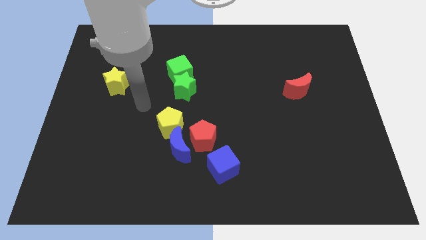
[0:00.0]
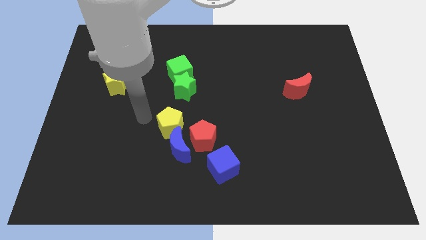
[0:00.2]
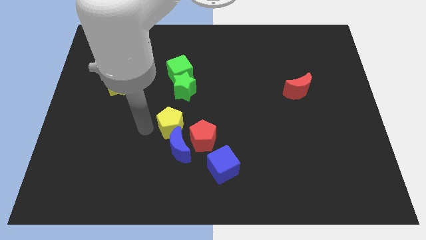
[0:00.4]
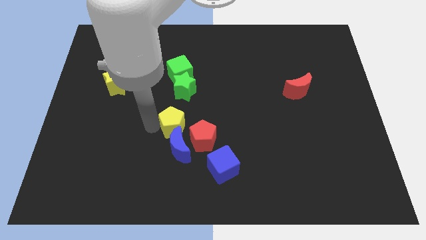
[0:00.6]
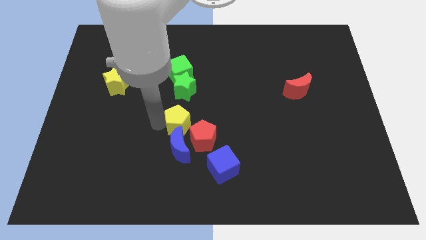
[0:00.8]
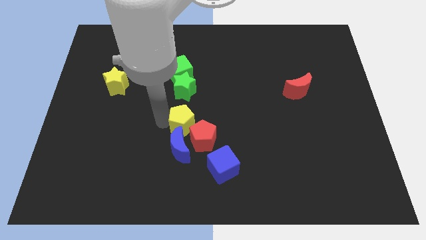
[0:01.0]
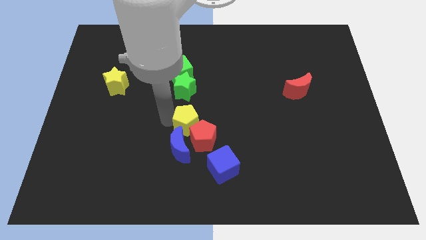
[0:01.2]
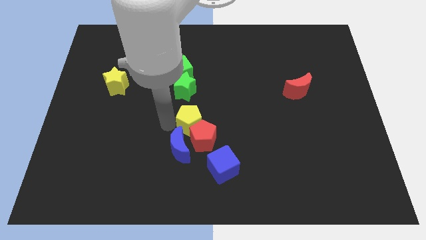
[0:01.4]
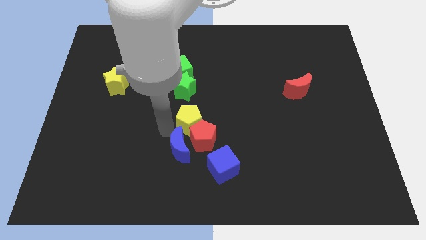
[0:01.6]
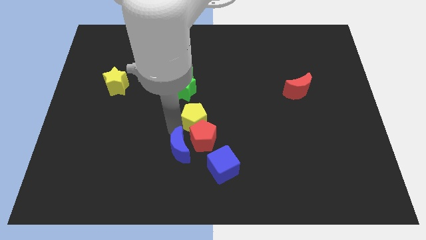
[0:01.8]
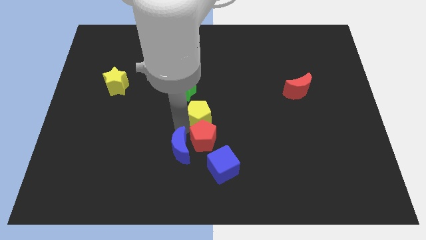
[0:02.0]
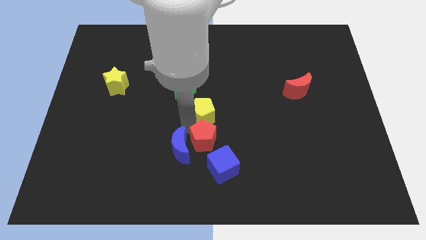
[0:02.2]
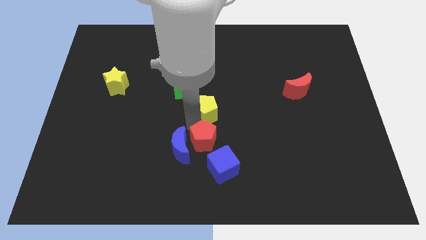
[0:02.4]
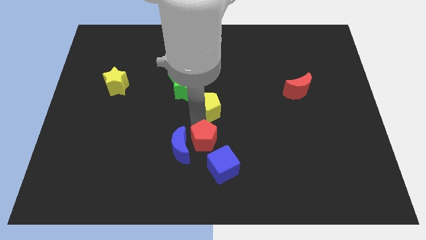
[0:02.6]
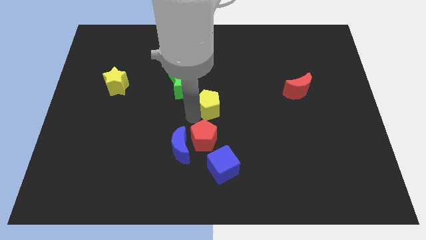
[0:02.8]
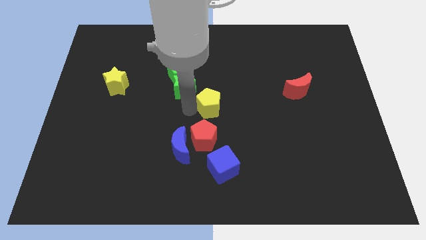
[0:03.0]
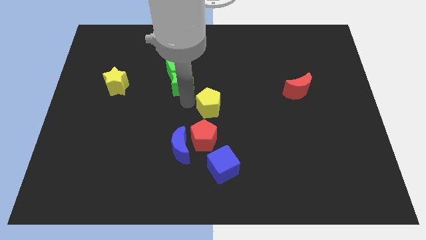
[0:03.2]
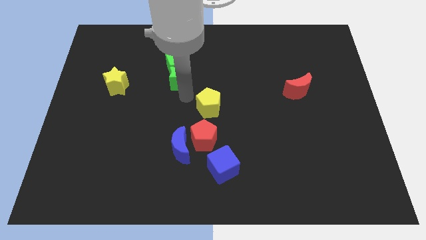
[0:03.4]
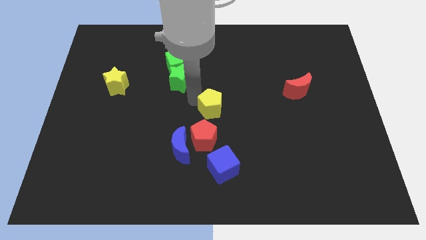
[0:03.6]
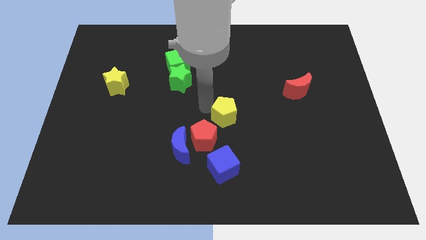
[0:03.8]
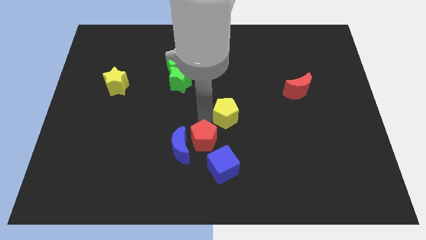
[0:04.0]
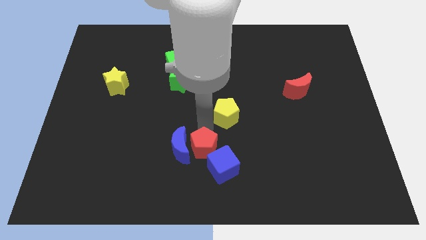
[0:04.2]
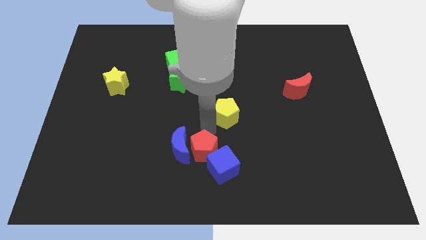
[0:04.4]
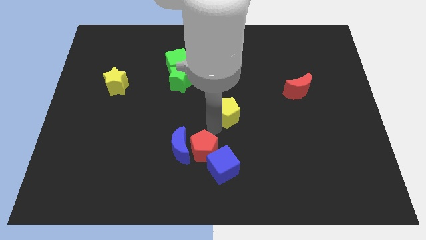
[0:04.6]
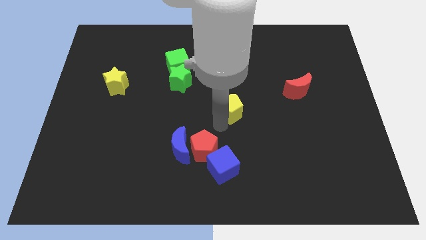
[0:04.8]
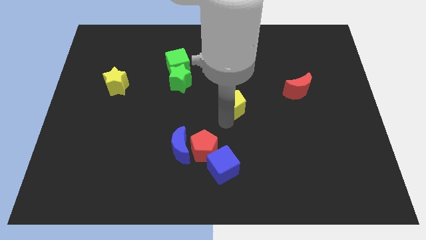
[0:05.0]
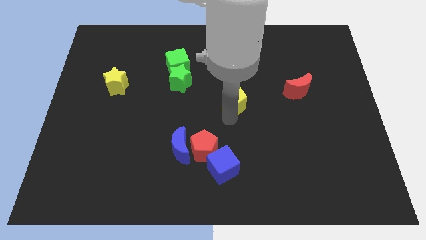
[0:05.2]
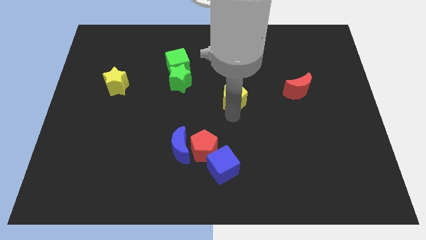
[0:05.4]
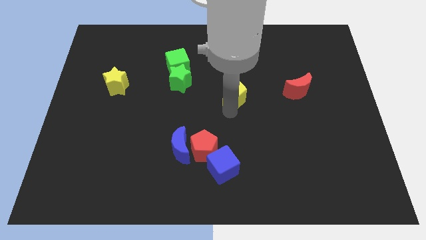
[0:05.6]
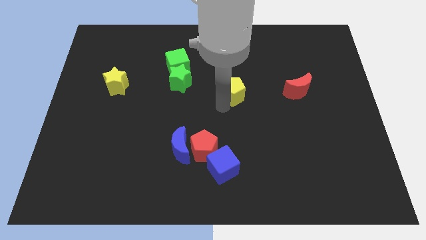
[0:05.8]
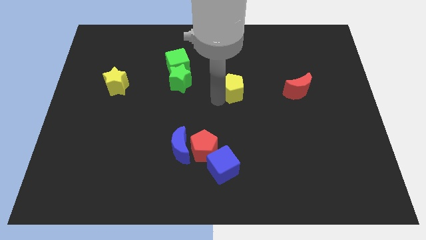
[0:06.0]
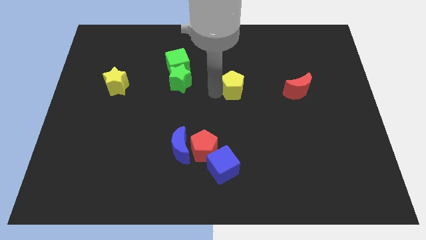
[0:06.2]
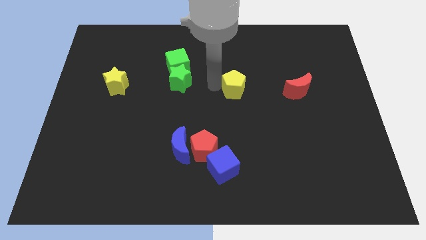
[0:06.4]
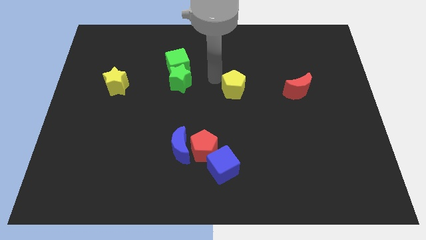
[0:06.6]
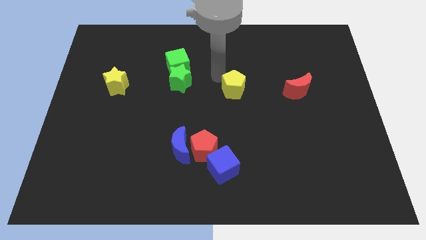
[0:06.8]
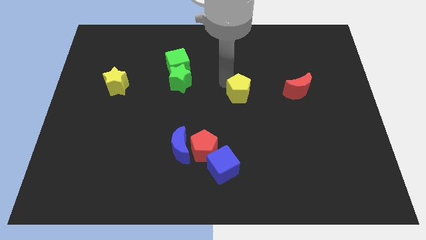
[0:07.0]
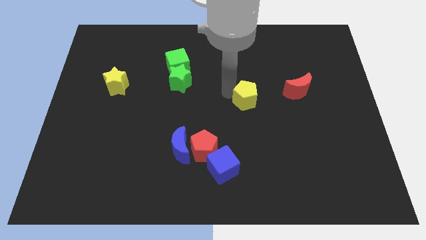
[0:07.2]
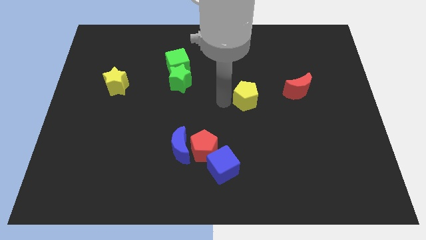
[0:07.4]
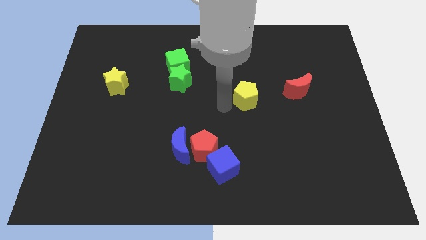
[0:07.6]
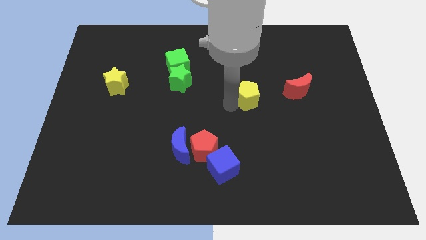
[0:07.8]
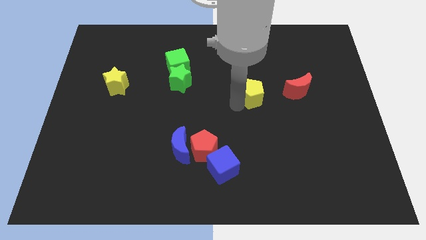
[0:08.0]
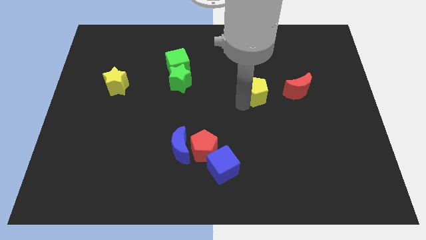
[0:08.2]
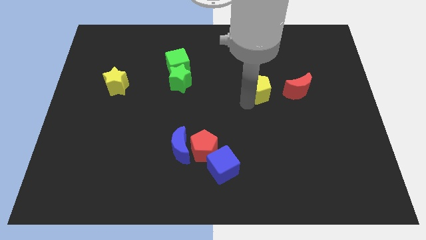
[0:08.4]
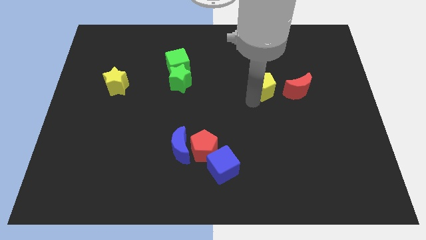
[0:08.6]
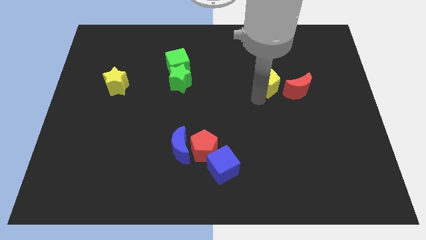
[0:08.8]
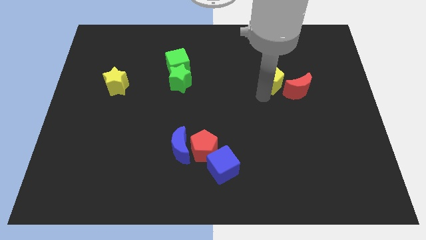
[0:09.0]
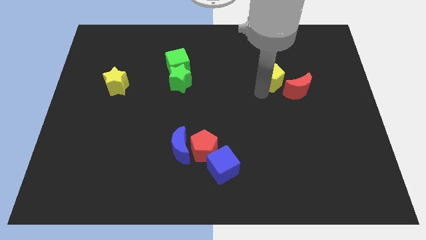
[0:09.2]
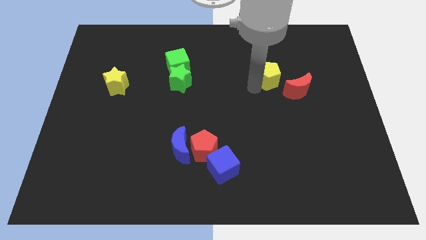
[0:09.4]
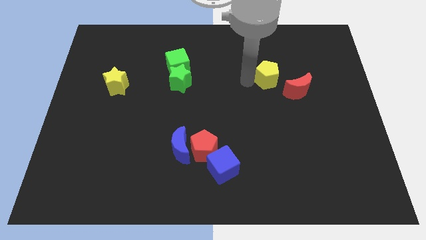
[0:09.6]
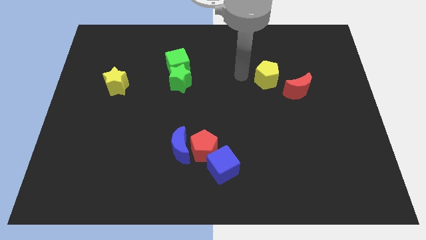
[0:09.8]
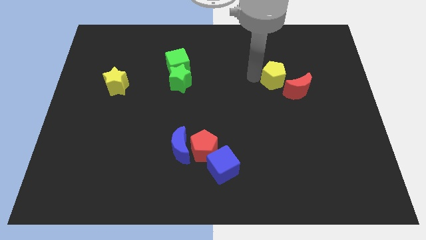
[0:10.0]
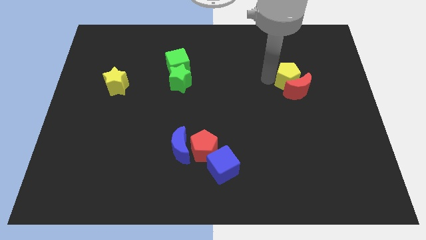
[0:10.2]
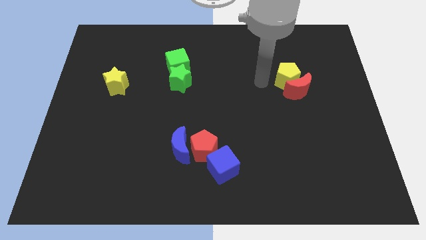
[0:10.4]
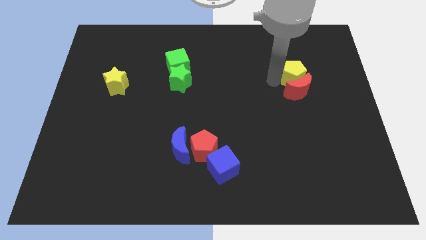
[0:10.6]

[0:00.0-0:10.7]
move the yellow pentagon to the top right of the red moon

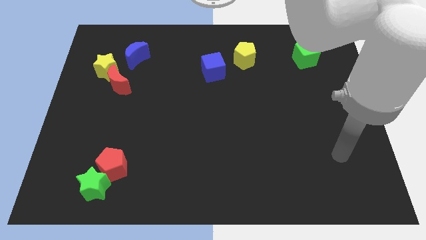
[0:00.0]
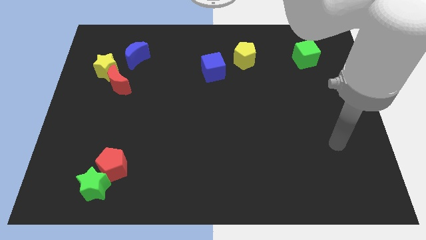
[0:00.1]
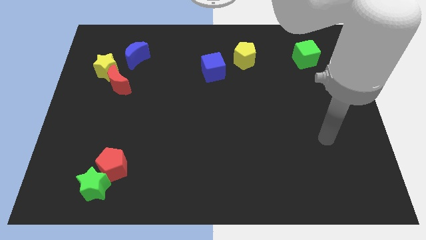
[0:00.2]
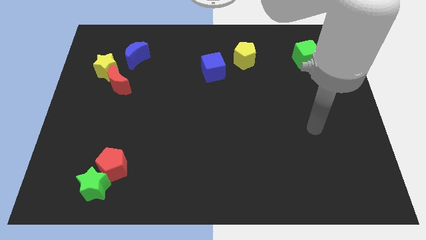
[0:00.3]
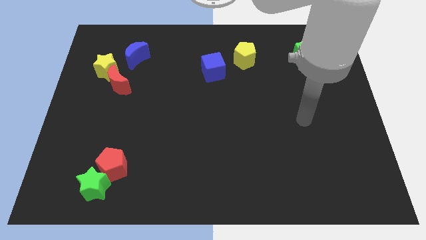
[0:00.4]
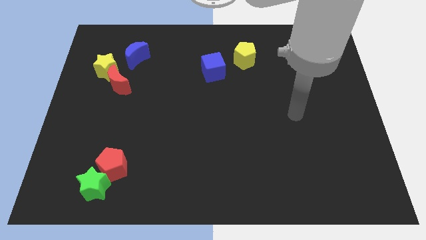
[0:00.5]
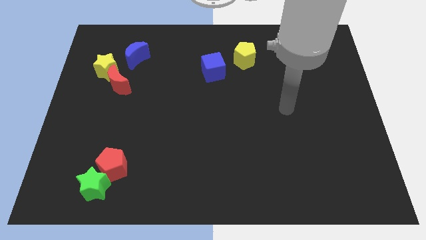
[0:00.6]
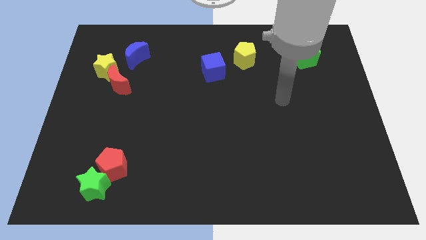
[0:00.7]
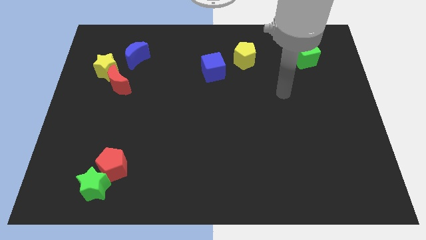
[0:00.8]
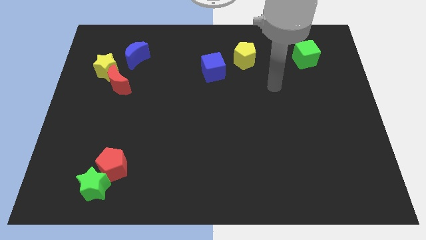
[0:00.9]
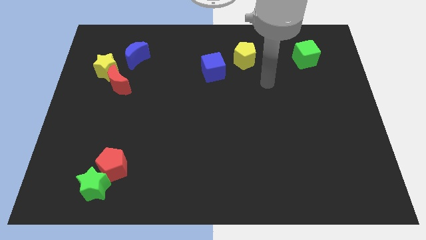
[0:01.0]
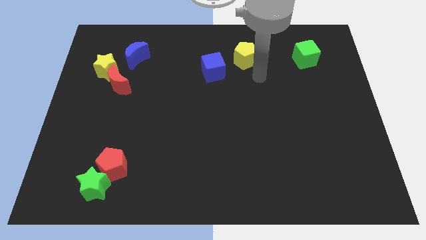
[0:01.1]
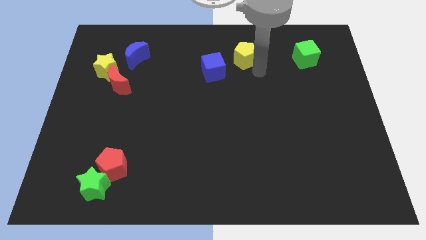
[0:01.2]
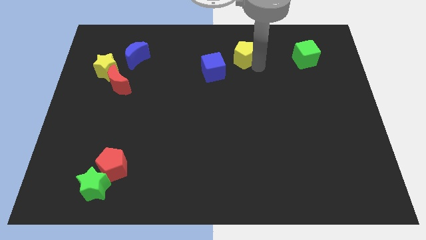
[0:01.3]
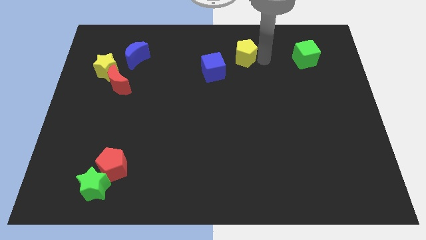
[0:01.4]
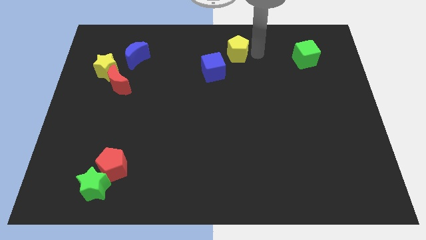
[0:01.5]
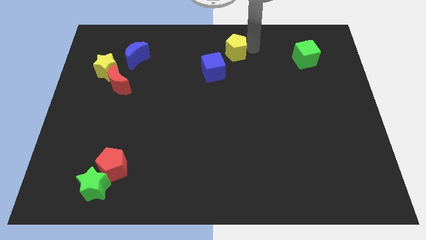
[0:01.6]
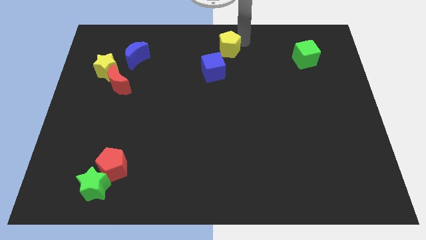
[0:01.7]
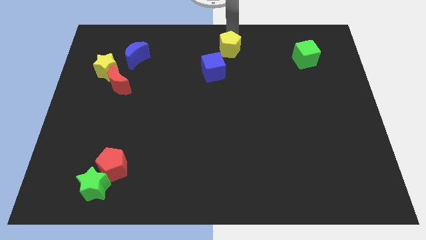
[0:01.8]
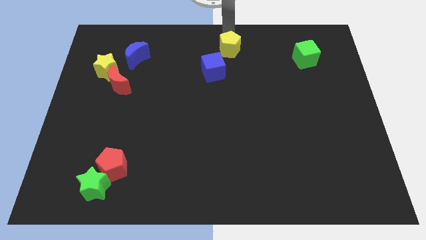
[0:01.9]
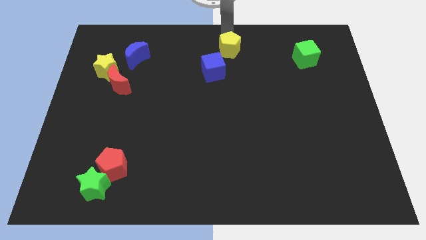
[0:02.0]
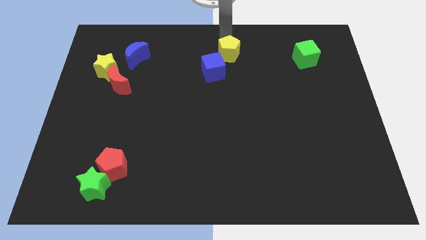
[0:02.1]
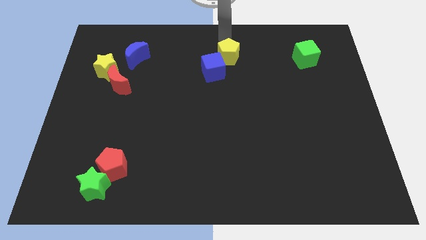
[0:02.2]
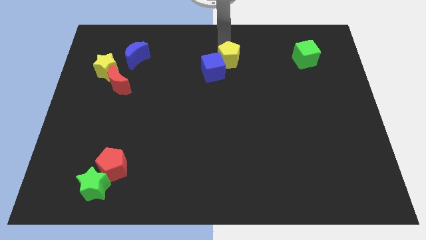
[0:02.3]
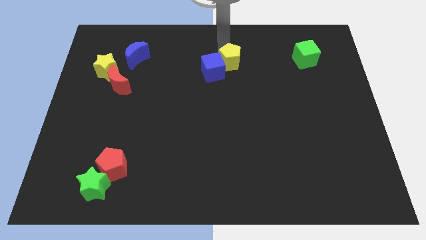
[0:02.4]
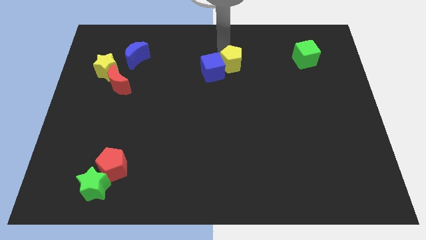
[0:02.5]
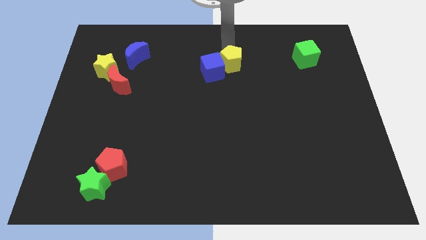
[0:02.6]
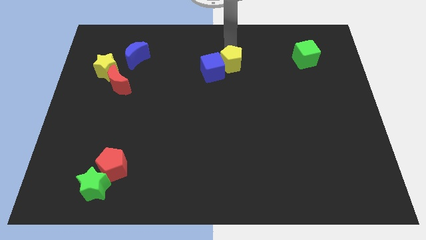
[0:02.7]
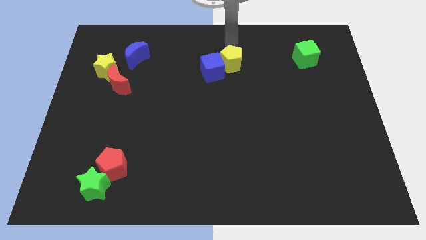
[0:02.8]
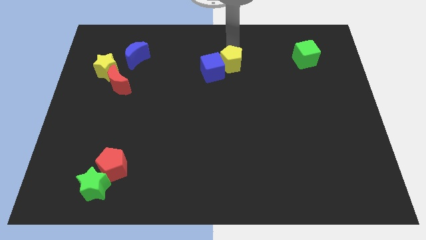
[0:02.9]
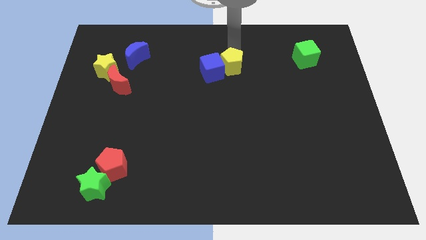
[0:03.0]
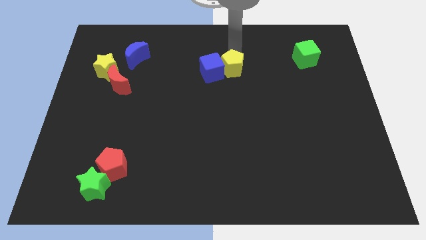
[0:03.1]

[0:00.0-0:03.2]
slide the yellow pentagon to the bottom right side of the blue cube
